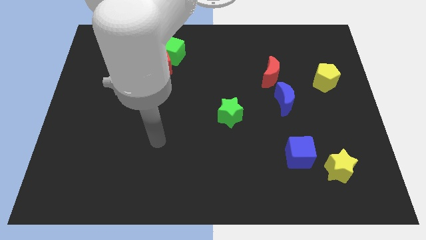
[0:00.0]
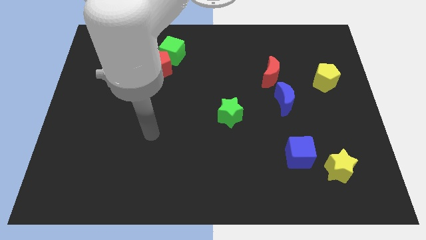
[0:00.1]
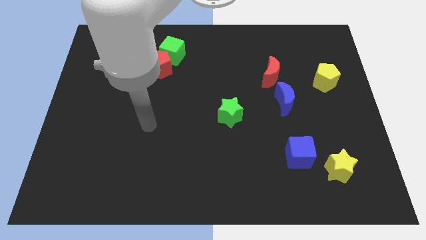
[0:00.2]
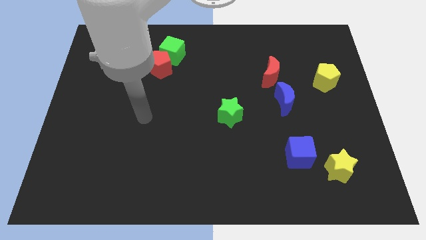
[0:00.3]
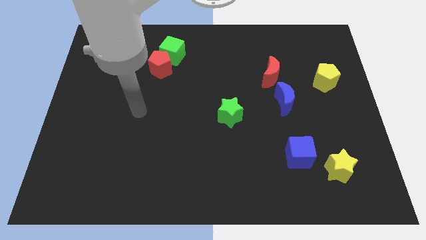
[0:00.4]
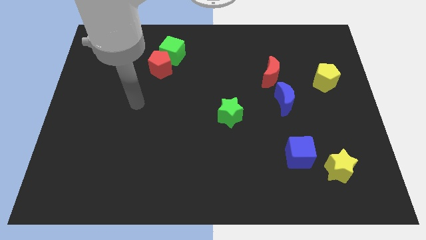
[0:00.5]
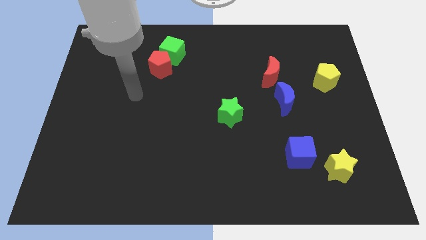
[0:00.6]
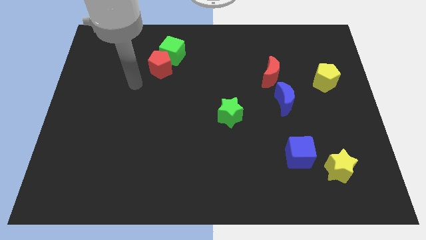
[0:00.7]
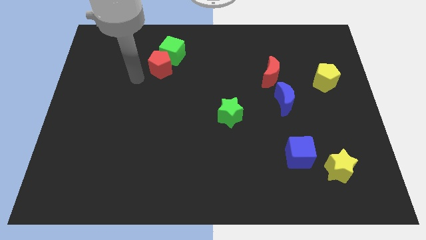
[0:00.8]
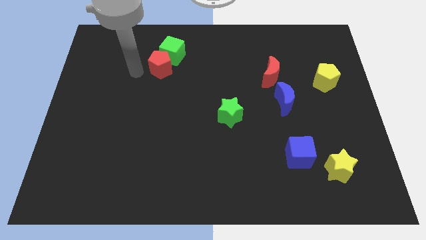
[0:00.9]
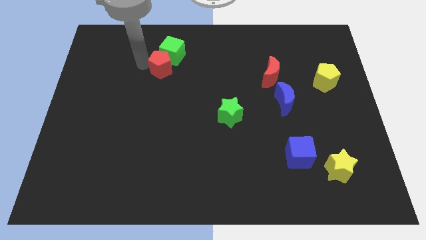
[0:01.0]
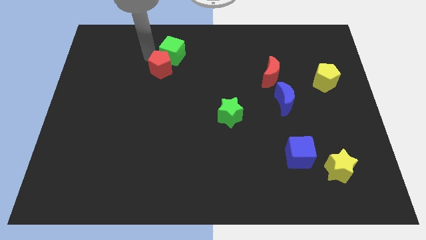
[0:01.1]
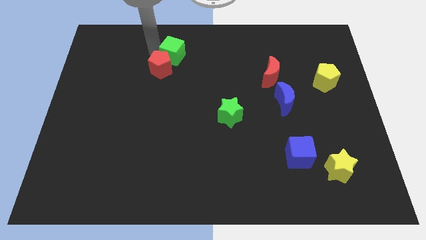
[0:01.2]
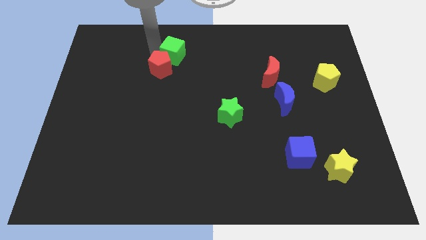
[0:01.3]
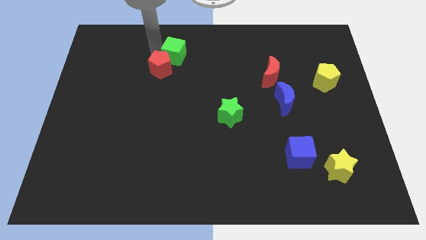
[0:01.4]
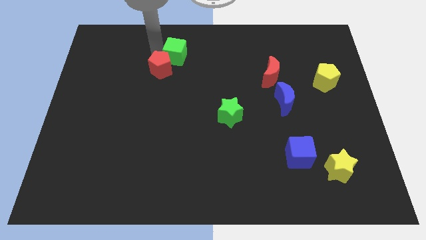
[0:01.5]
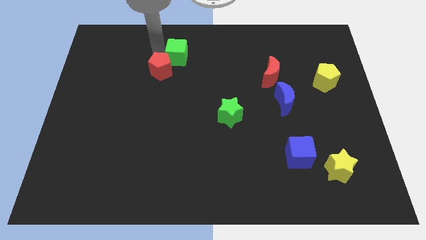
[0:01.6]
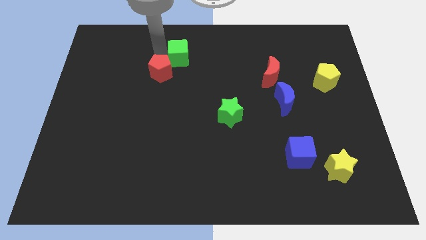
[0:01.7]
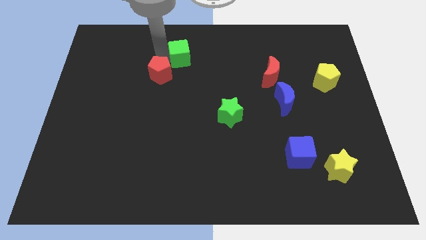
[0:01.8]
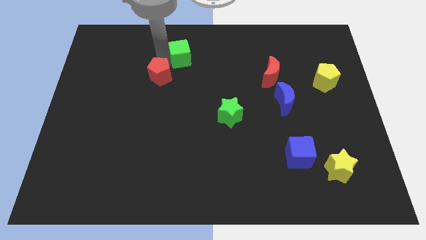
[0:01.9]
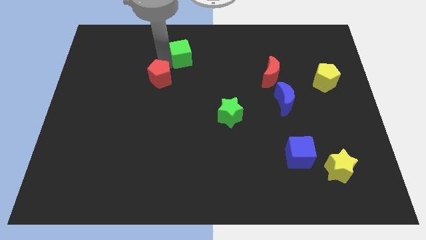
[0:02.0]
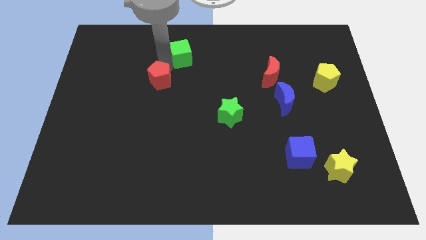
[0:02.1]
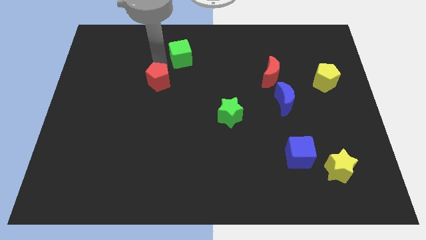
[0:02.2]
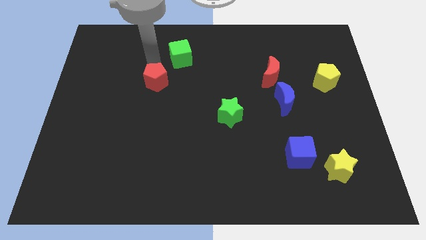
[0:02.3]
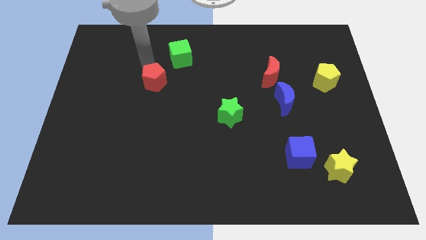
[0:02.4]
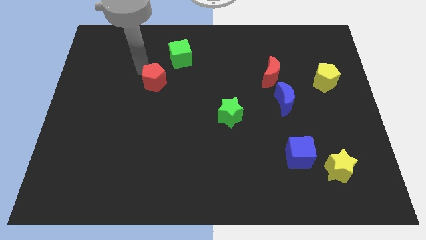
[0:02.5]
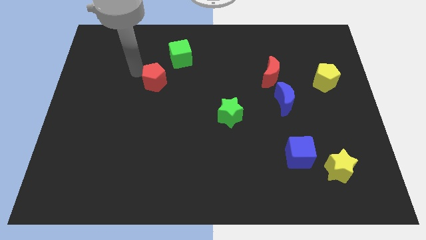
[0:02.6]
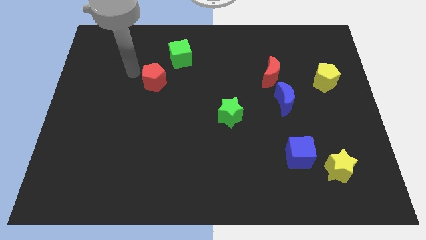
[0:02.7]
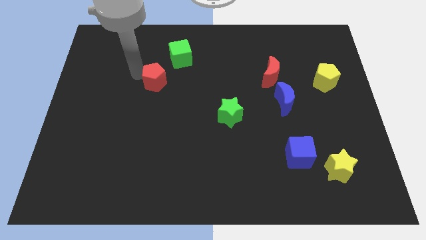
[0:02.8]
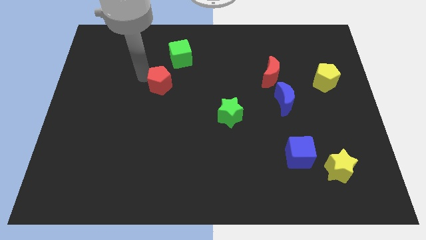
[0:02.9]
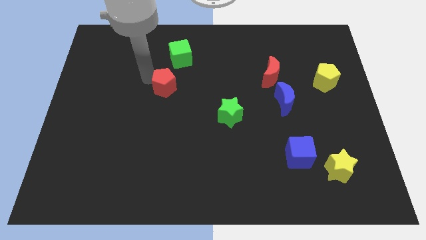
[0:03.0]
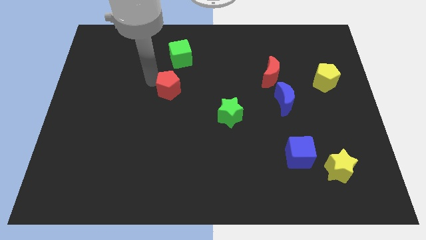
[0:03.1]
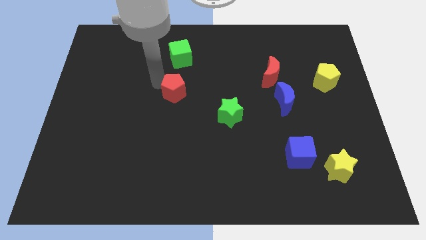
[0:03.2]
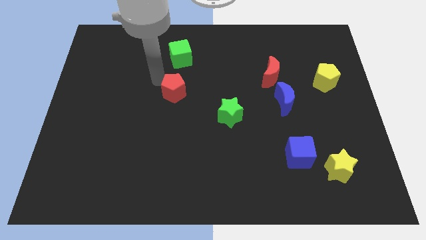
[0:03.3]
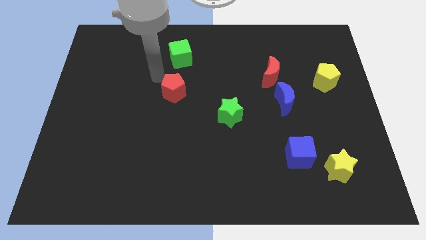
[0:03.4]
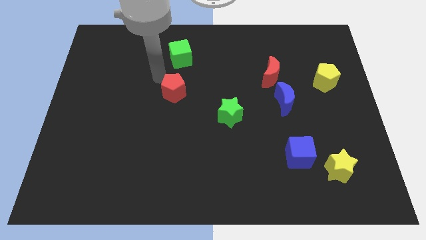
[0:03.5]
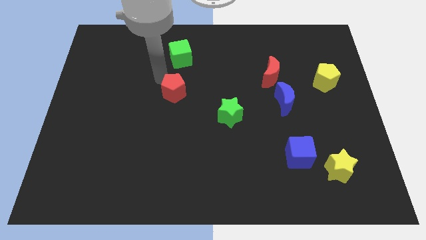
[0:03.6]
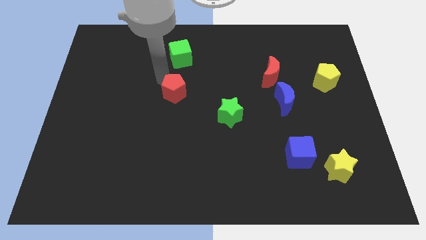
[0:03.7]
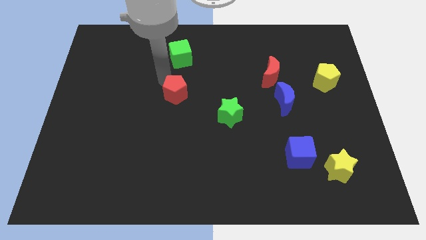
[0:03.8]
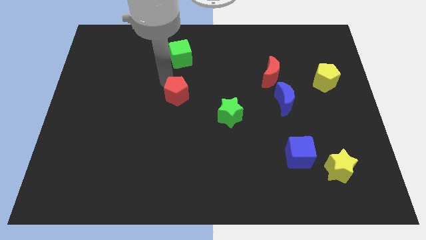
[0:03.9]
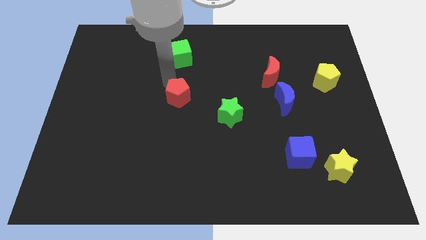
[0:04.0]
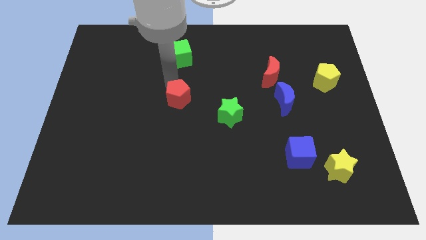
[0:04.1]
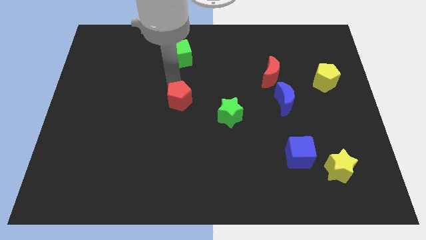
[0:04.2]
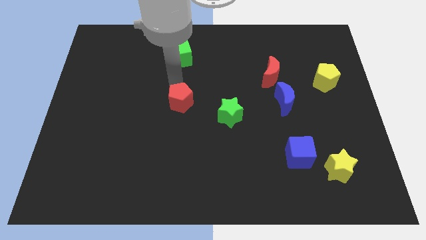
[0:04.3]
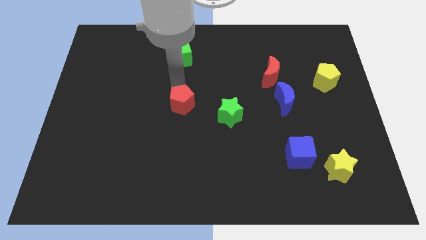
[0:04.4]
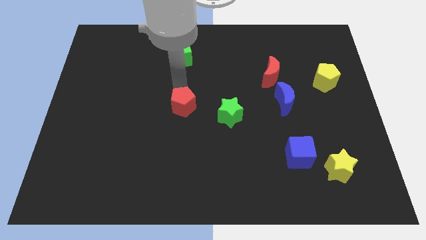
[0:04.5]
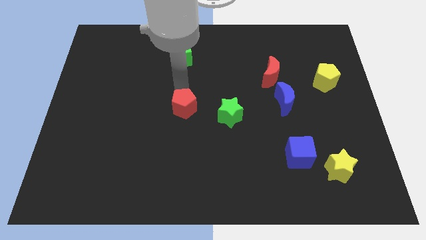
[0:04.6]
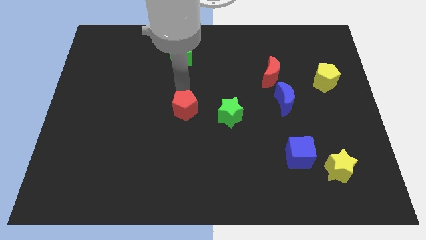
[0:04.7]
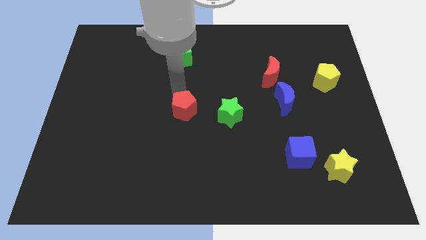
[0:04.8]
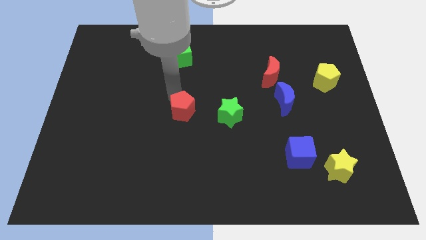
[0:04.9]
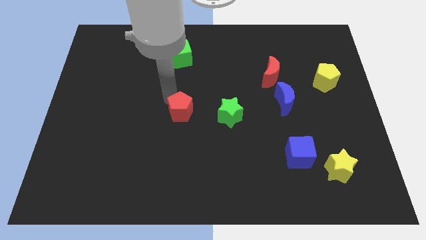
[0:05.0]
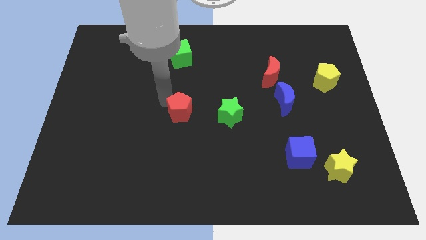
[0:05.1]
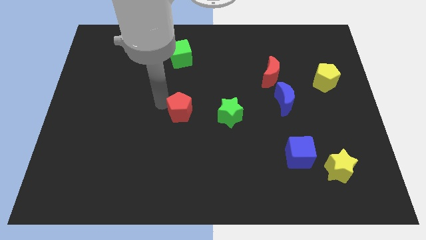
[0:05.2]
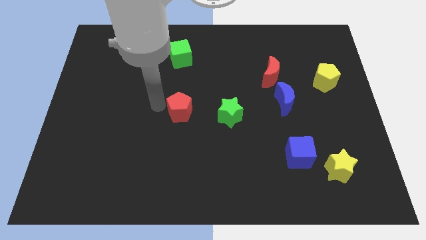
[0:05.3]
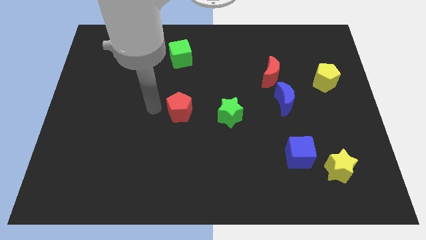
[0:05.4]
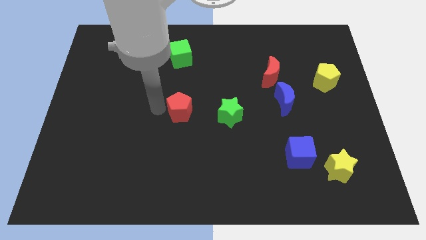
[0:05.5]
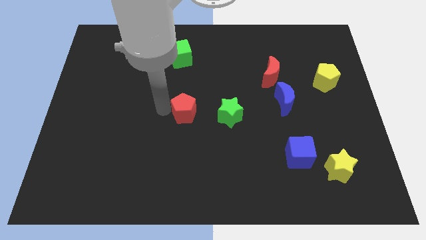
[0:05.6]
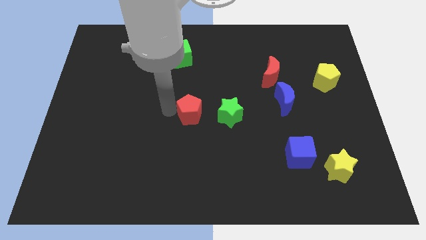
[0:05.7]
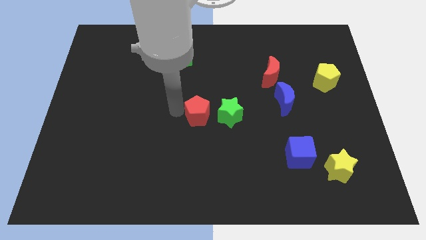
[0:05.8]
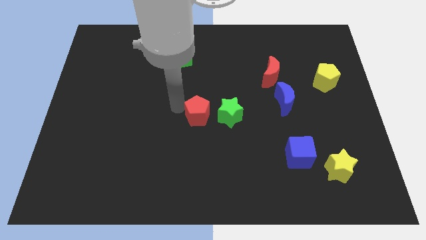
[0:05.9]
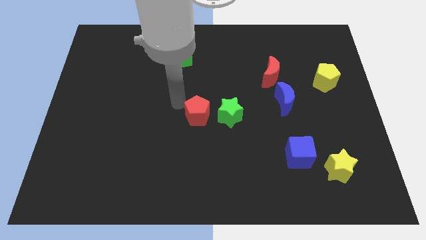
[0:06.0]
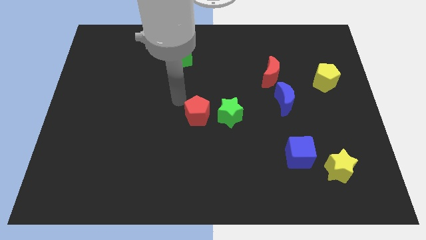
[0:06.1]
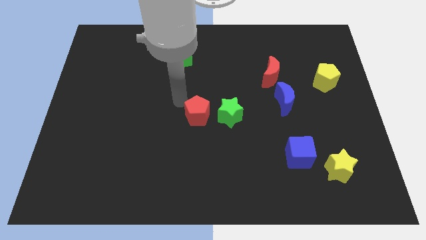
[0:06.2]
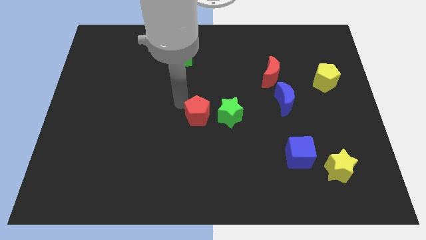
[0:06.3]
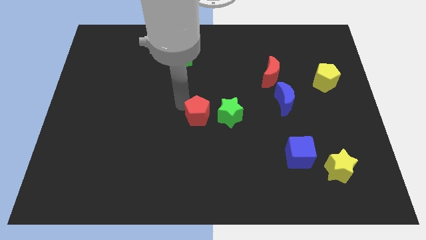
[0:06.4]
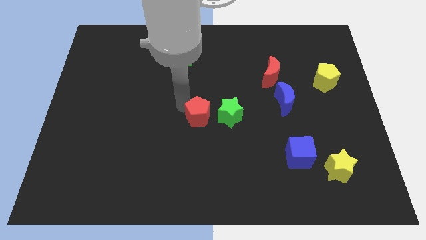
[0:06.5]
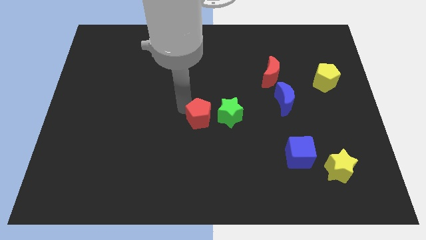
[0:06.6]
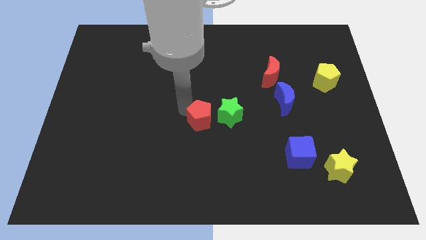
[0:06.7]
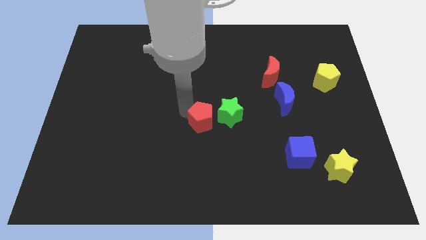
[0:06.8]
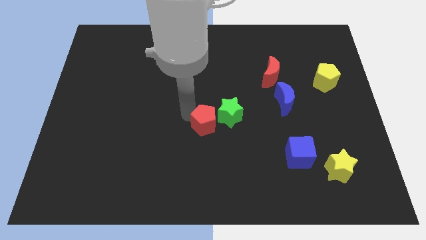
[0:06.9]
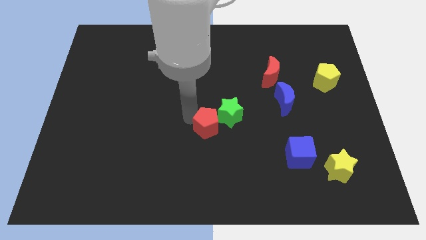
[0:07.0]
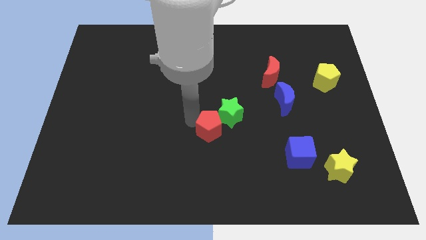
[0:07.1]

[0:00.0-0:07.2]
slide the red pentagon to the bottom of the green star

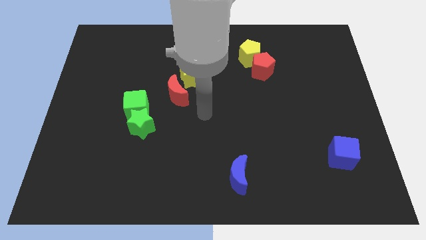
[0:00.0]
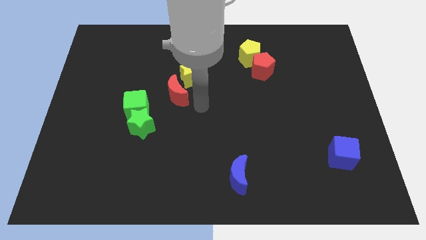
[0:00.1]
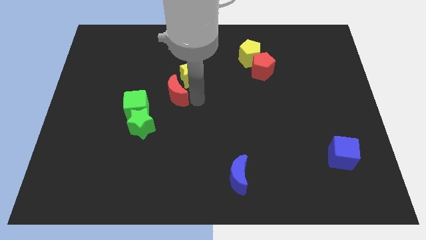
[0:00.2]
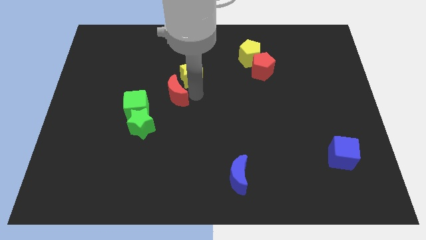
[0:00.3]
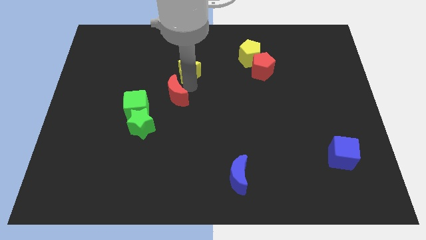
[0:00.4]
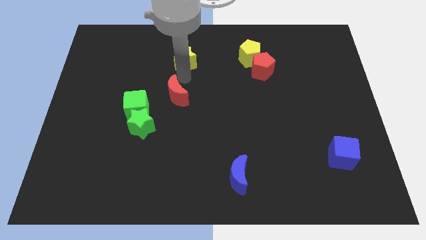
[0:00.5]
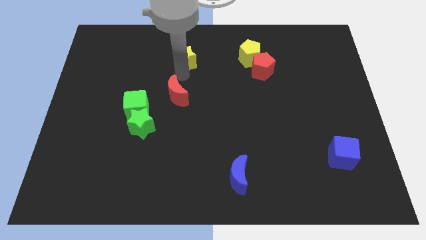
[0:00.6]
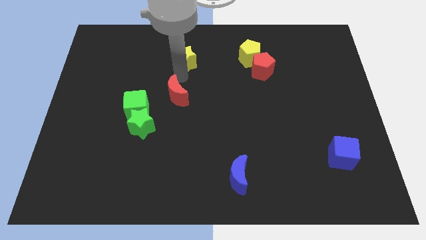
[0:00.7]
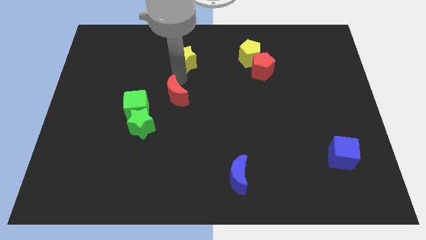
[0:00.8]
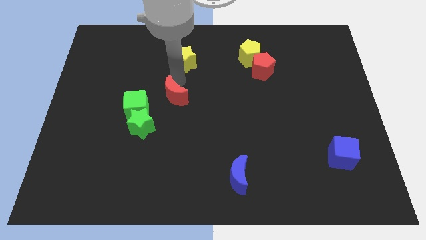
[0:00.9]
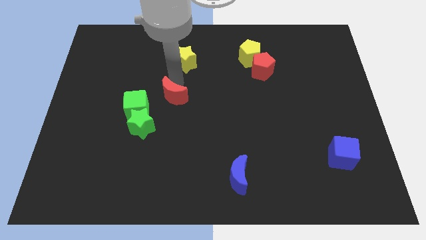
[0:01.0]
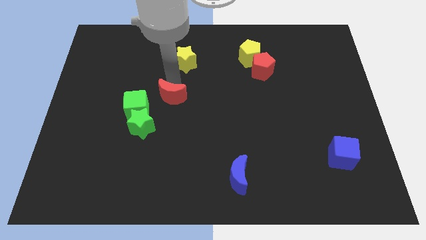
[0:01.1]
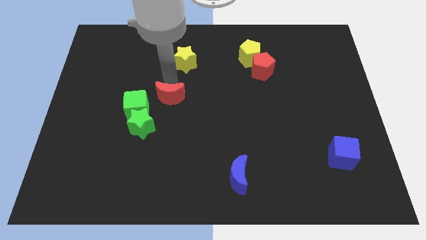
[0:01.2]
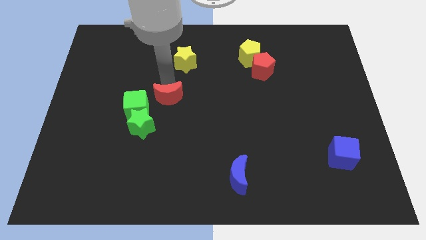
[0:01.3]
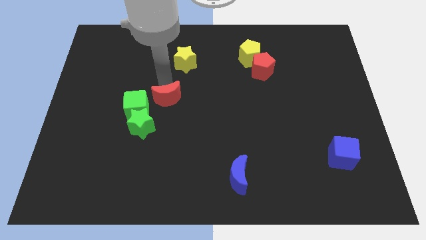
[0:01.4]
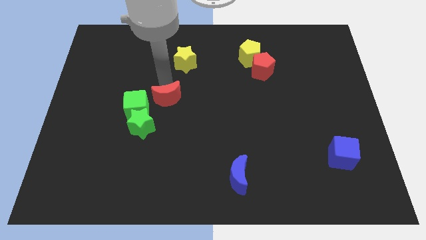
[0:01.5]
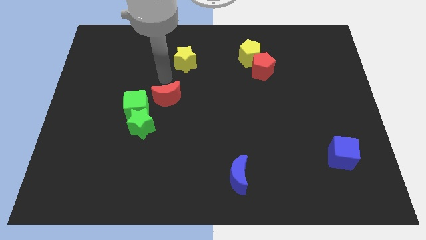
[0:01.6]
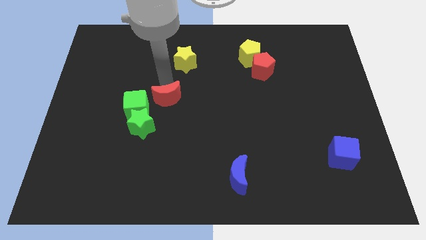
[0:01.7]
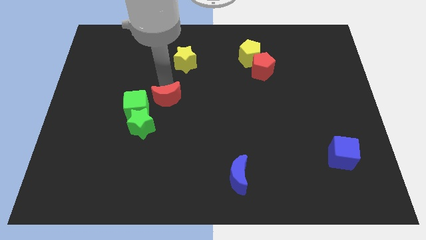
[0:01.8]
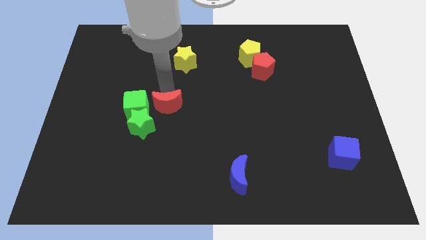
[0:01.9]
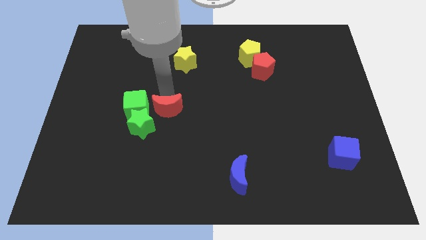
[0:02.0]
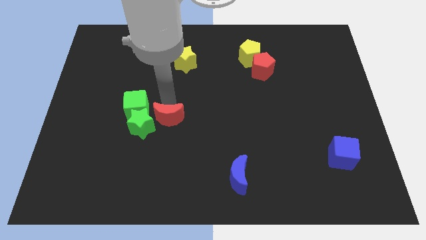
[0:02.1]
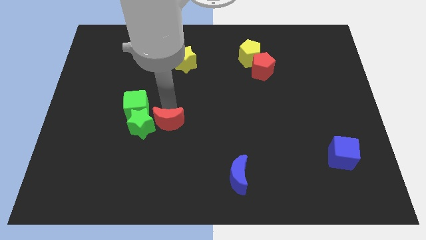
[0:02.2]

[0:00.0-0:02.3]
push the red moon to the bottom right side of the green star
